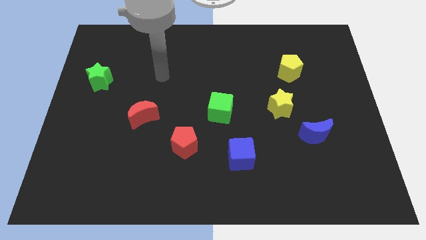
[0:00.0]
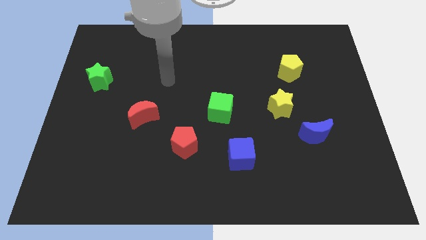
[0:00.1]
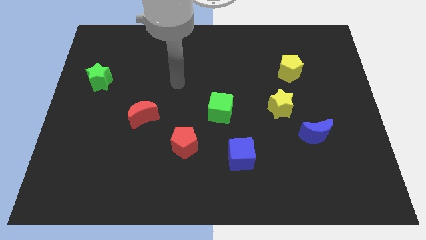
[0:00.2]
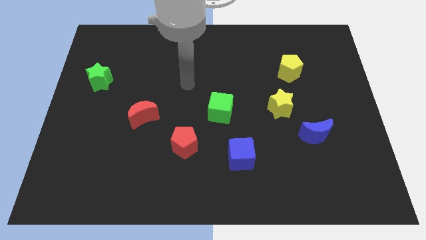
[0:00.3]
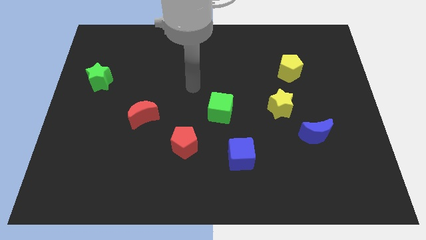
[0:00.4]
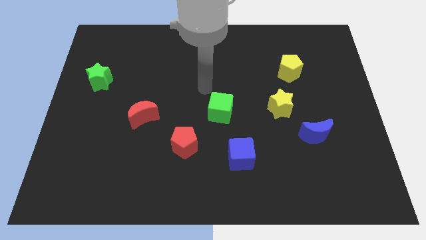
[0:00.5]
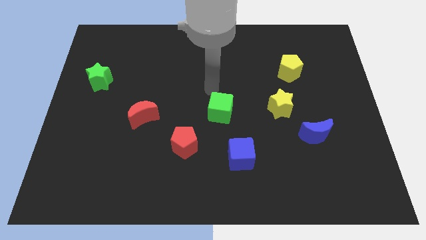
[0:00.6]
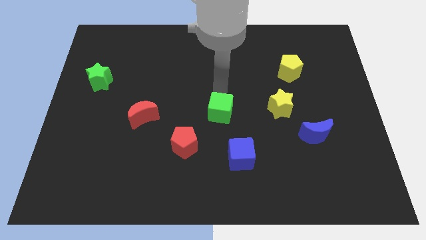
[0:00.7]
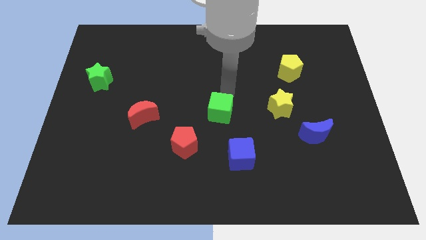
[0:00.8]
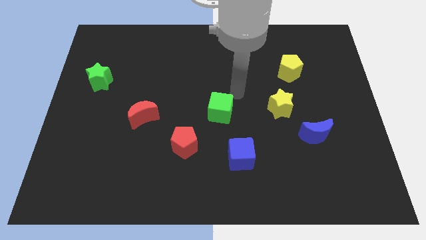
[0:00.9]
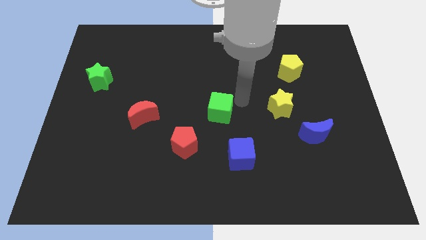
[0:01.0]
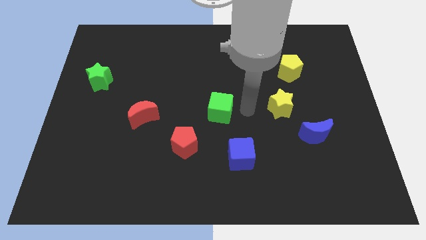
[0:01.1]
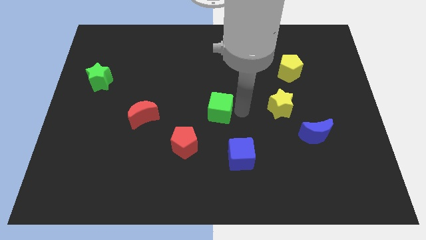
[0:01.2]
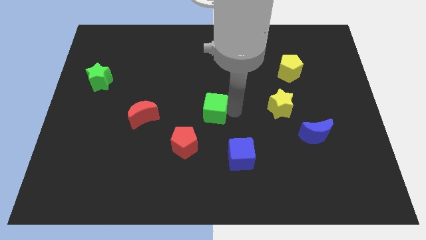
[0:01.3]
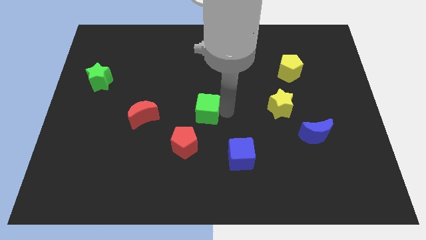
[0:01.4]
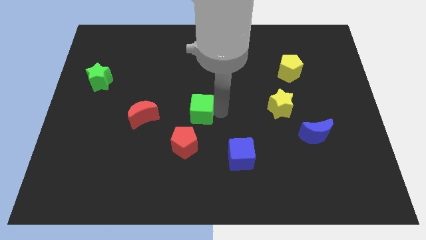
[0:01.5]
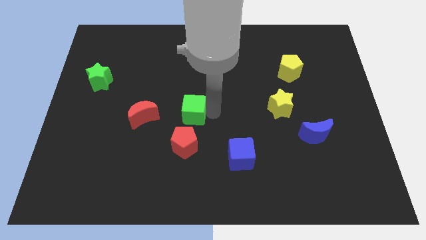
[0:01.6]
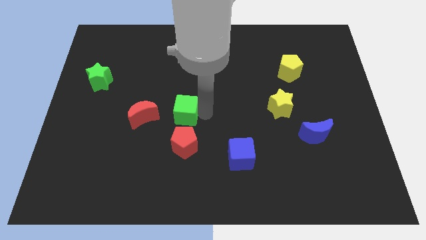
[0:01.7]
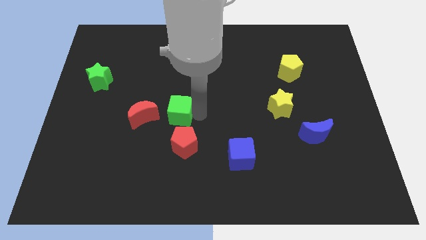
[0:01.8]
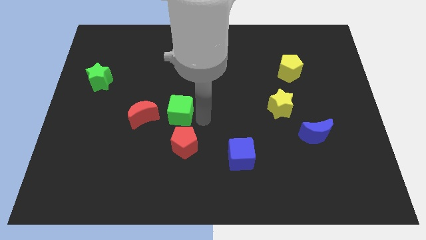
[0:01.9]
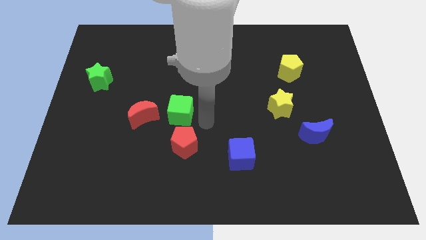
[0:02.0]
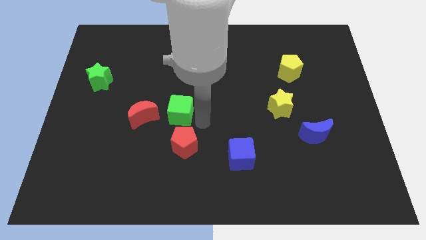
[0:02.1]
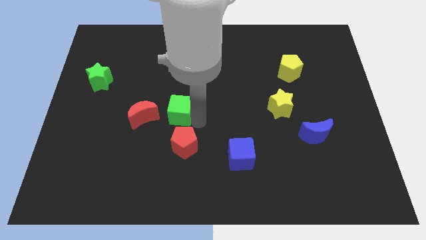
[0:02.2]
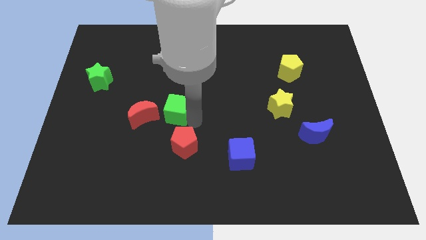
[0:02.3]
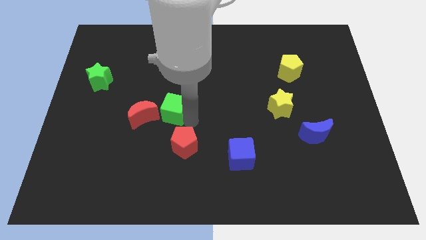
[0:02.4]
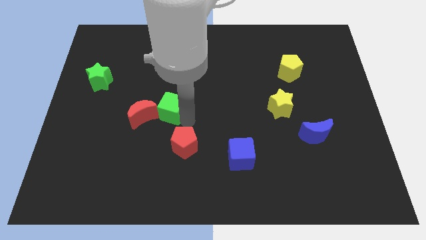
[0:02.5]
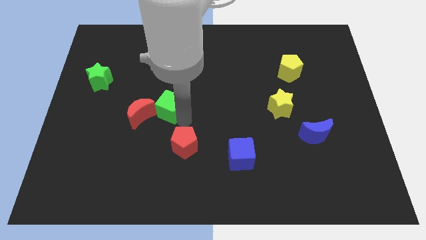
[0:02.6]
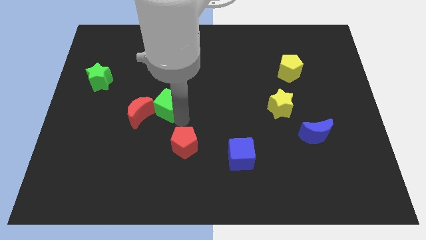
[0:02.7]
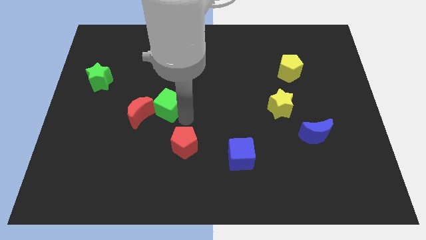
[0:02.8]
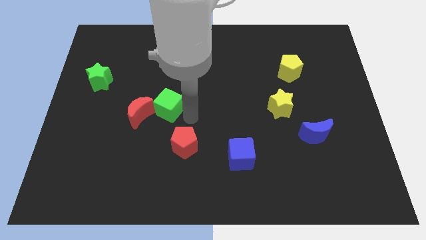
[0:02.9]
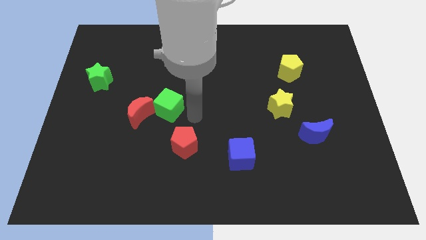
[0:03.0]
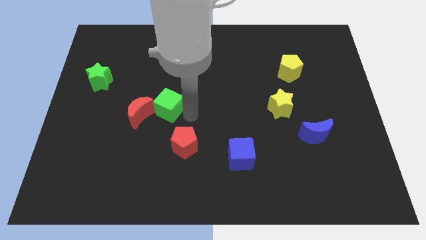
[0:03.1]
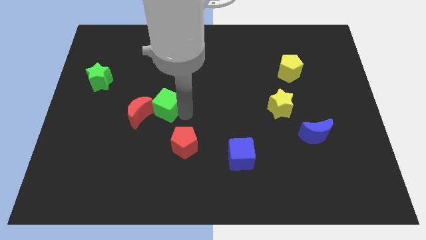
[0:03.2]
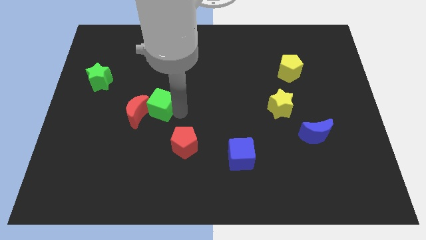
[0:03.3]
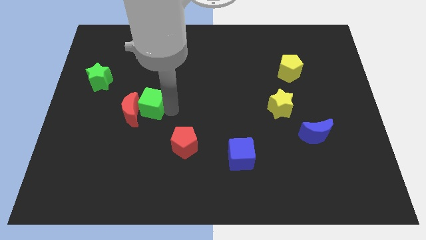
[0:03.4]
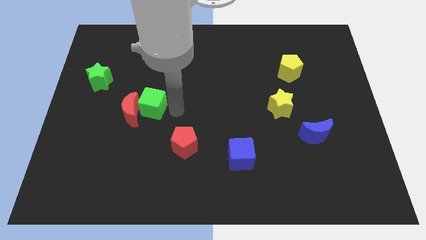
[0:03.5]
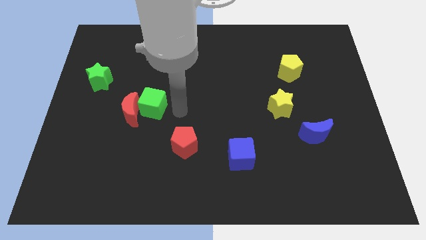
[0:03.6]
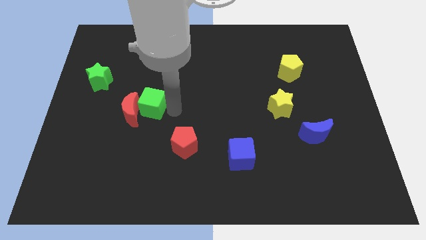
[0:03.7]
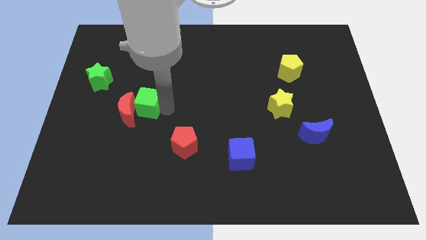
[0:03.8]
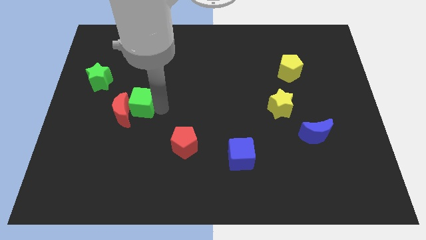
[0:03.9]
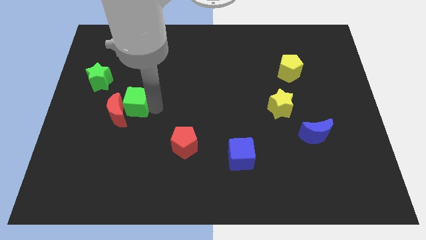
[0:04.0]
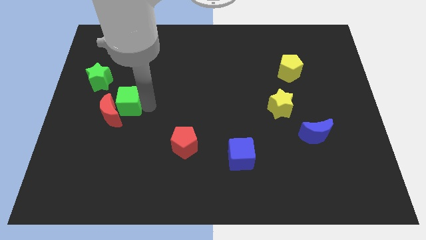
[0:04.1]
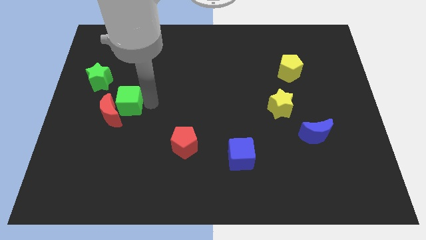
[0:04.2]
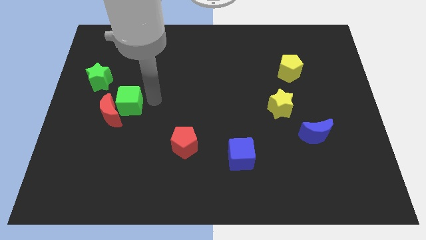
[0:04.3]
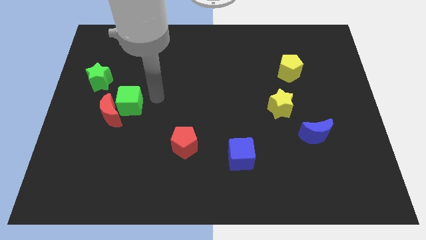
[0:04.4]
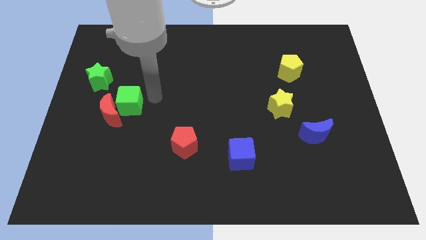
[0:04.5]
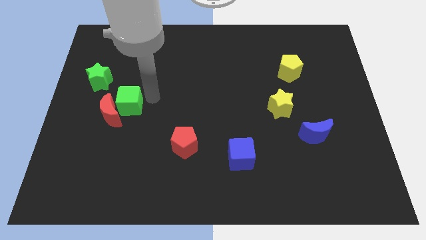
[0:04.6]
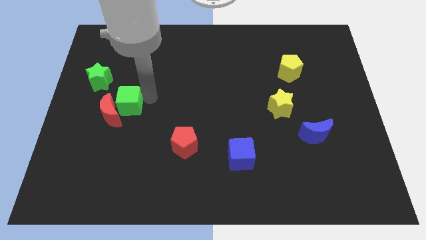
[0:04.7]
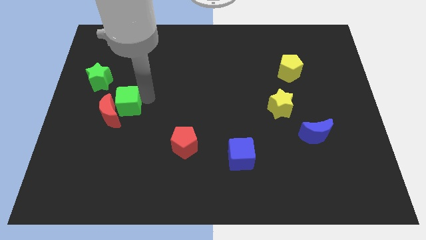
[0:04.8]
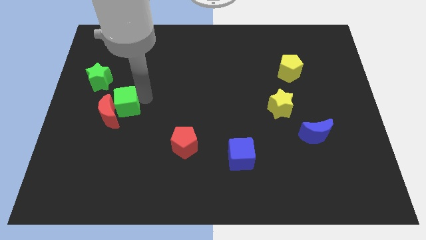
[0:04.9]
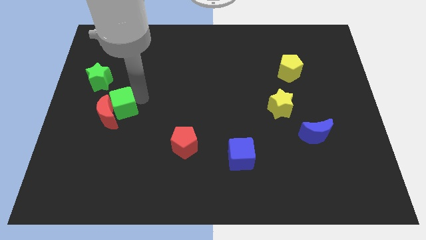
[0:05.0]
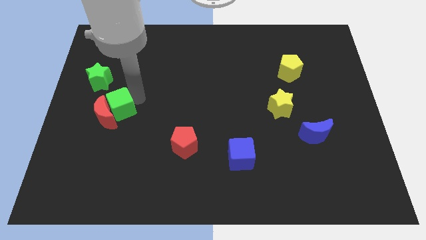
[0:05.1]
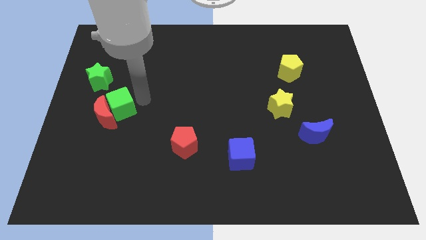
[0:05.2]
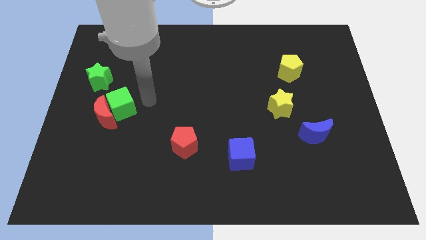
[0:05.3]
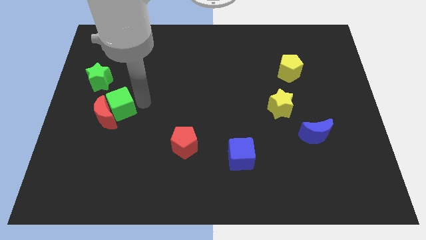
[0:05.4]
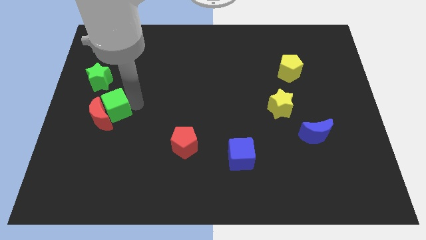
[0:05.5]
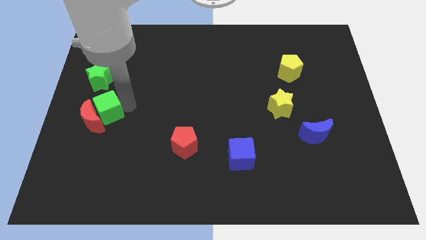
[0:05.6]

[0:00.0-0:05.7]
push the green cube below the green star

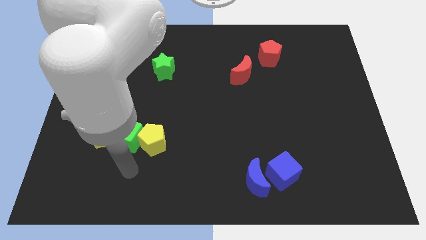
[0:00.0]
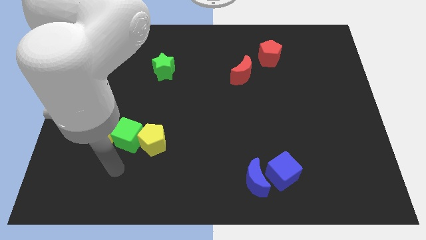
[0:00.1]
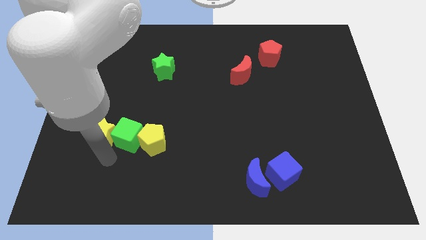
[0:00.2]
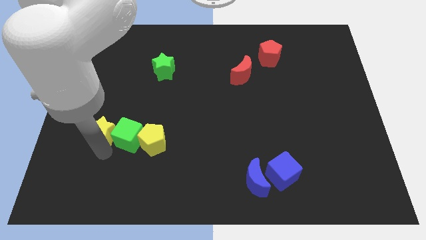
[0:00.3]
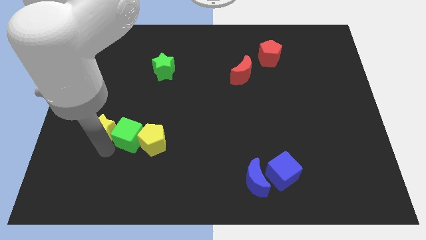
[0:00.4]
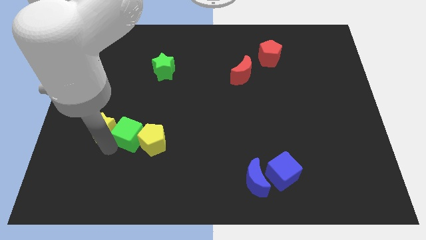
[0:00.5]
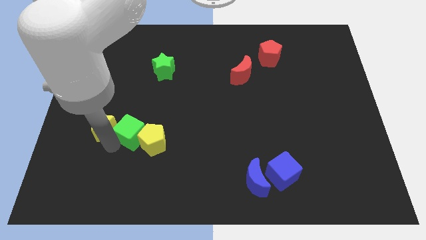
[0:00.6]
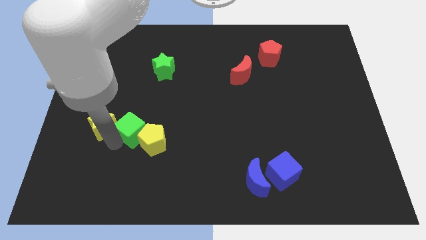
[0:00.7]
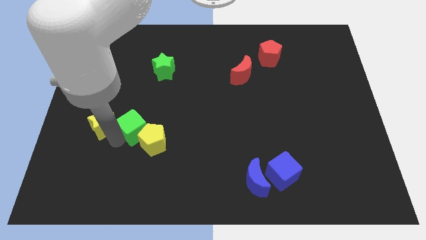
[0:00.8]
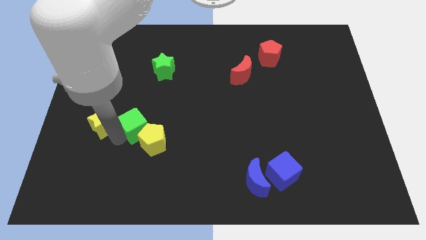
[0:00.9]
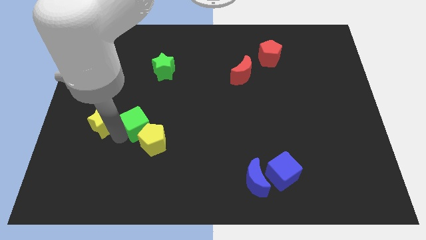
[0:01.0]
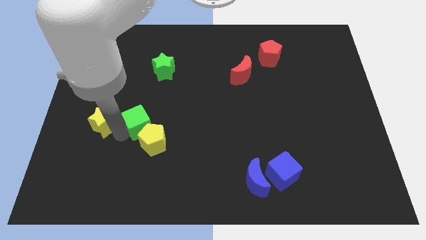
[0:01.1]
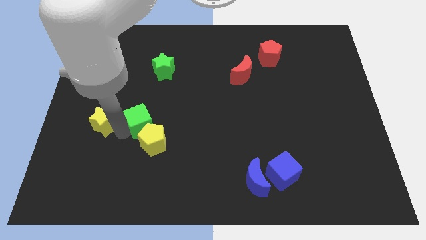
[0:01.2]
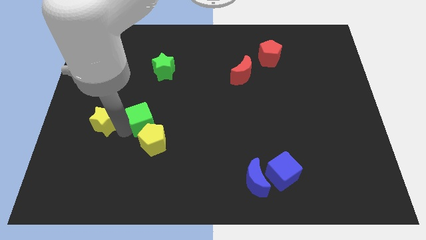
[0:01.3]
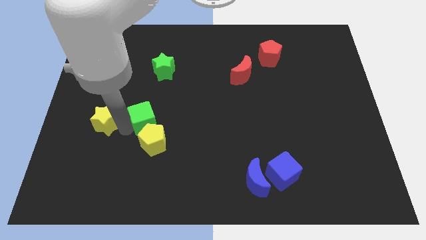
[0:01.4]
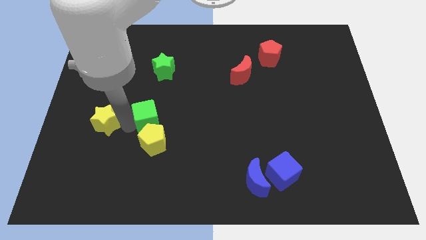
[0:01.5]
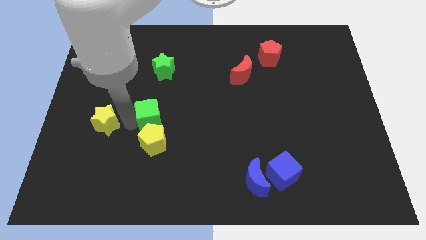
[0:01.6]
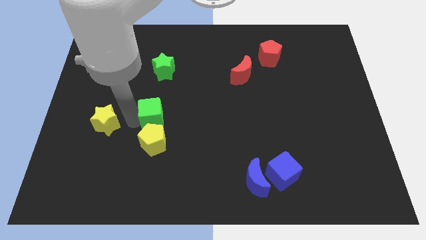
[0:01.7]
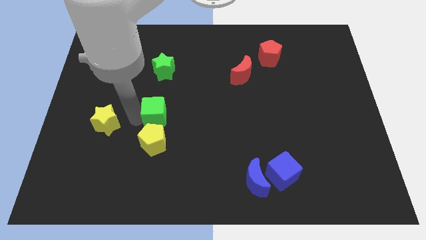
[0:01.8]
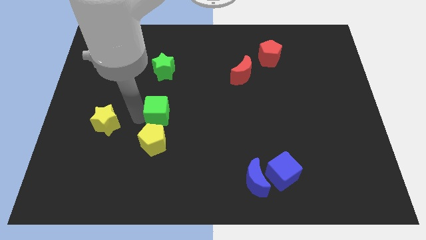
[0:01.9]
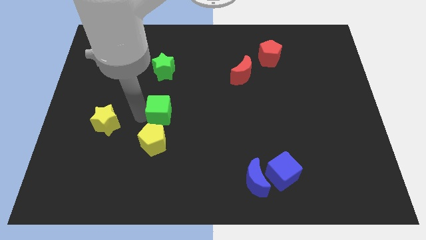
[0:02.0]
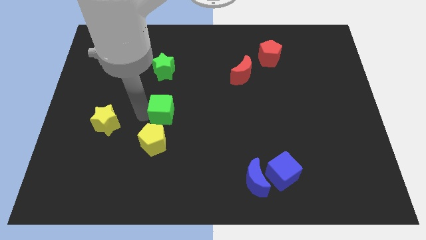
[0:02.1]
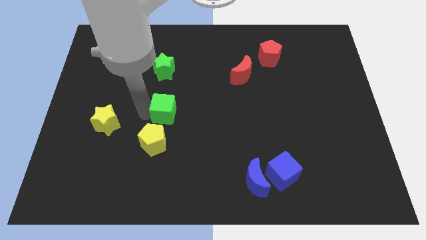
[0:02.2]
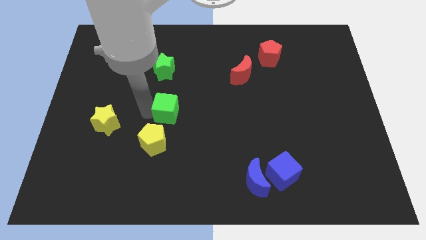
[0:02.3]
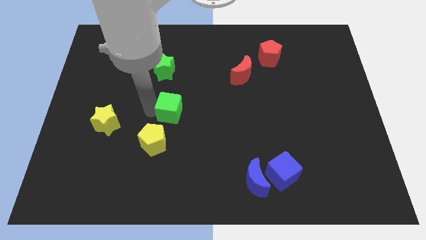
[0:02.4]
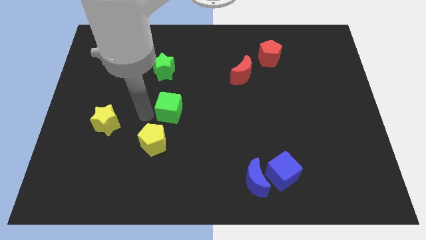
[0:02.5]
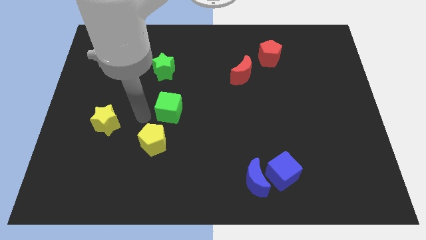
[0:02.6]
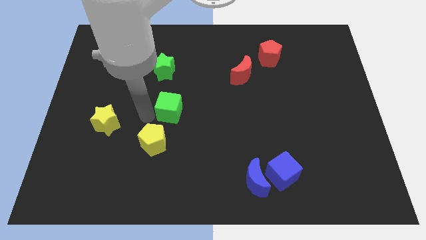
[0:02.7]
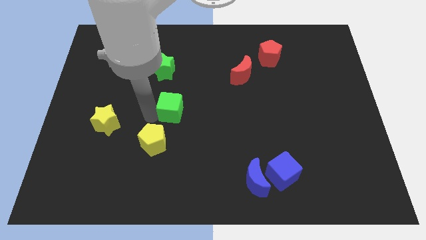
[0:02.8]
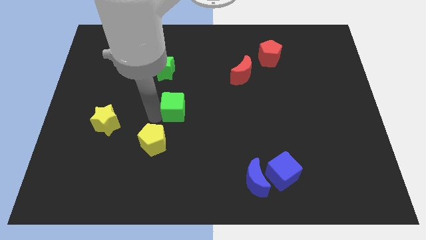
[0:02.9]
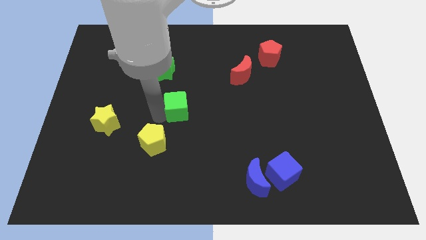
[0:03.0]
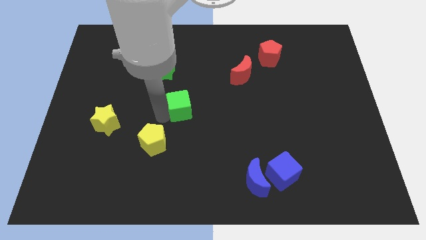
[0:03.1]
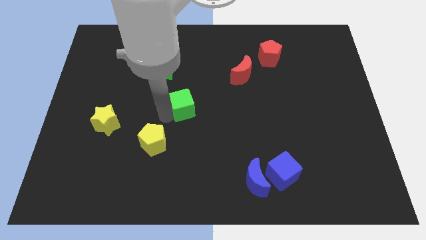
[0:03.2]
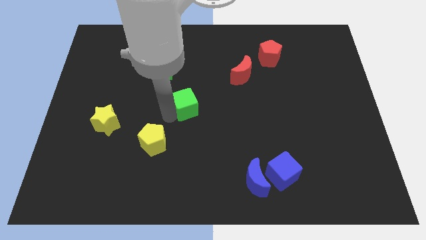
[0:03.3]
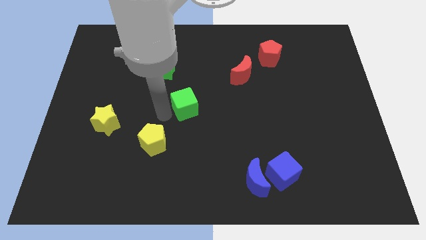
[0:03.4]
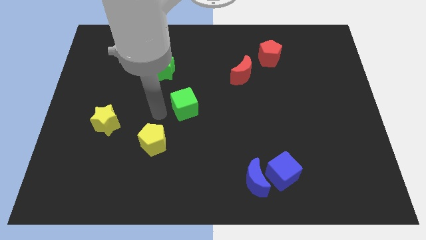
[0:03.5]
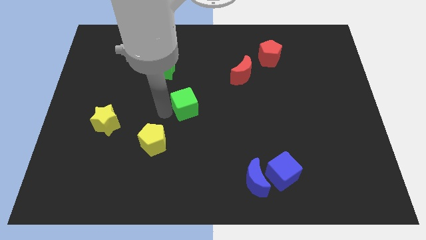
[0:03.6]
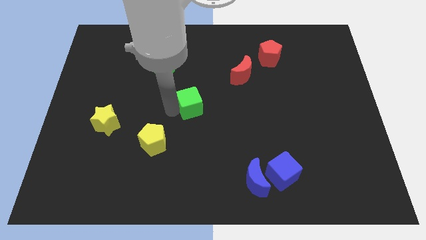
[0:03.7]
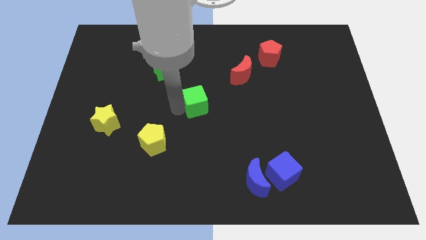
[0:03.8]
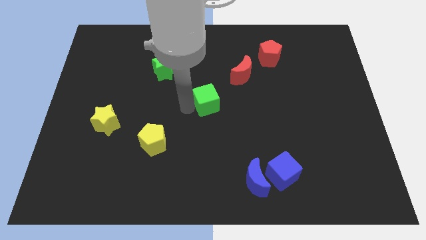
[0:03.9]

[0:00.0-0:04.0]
move the green cube to the bottom left side of the red moon
